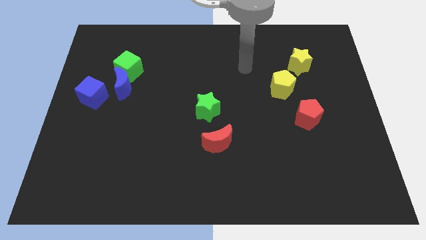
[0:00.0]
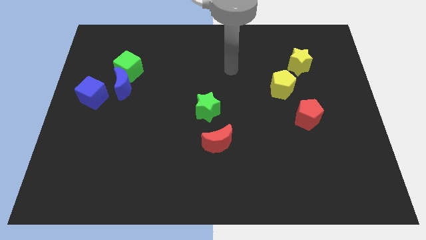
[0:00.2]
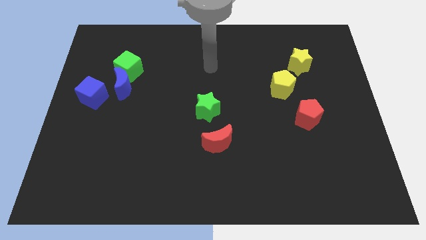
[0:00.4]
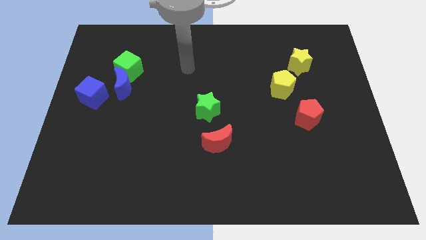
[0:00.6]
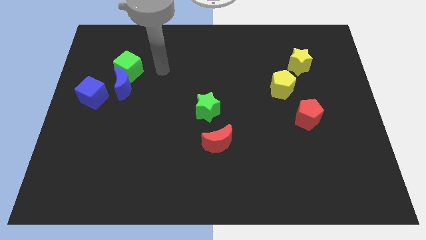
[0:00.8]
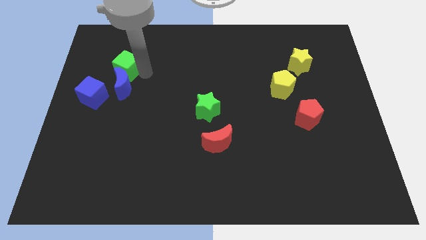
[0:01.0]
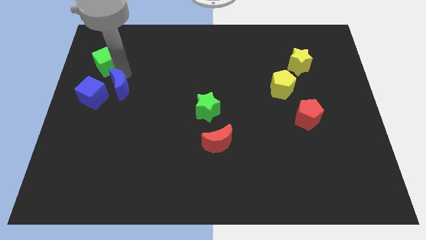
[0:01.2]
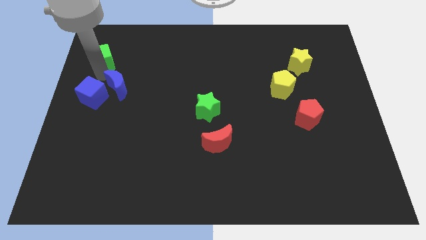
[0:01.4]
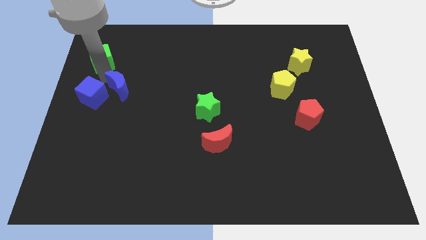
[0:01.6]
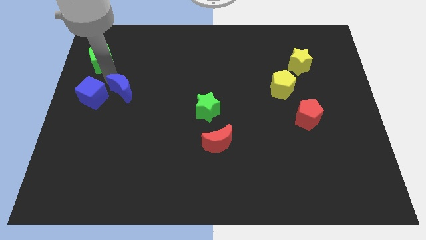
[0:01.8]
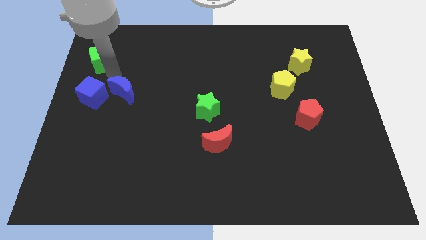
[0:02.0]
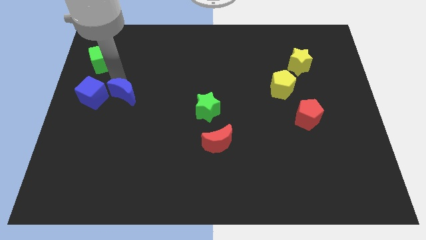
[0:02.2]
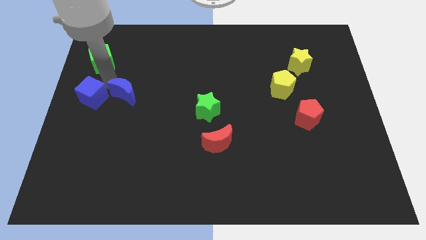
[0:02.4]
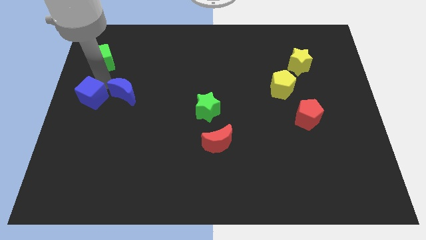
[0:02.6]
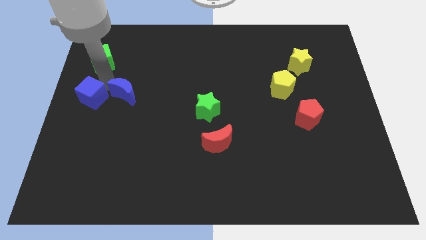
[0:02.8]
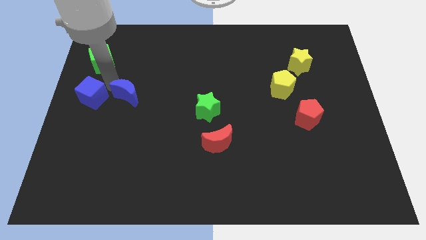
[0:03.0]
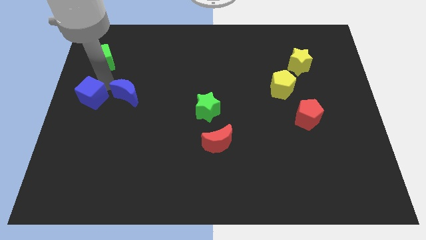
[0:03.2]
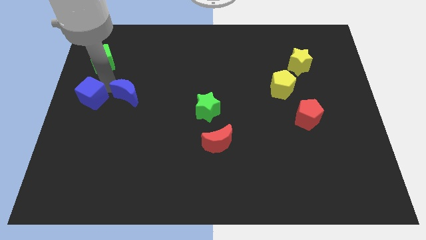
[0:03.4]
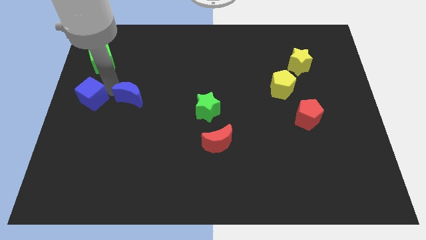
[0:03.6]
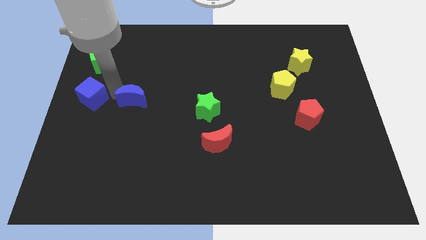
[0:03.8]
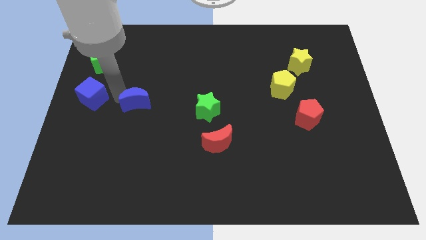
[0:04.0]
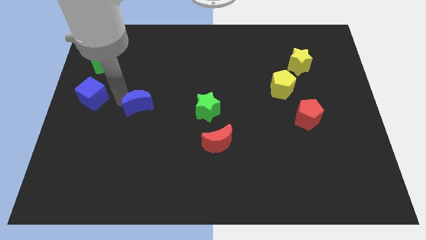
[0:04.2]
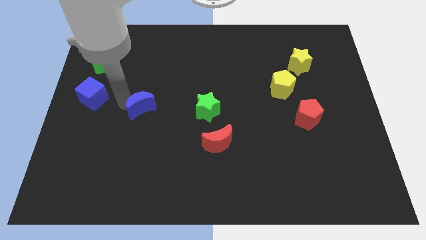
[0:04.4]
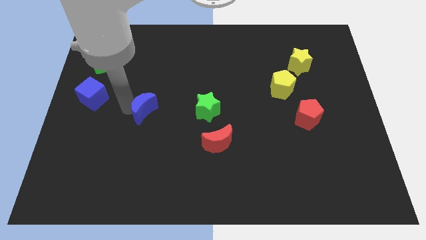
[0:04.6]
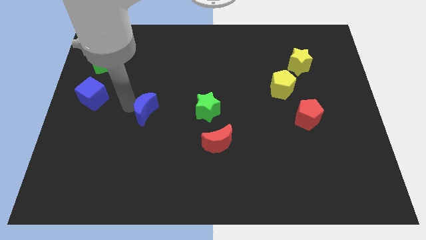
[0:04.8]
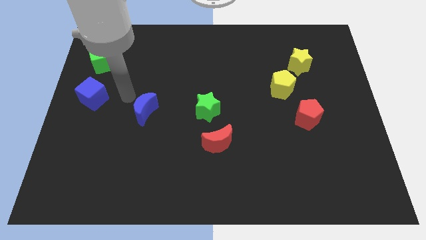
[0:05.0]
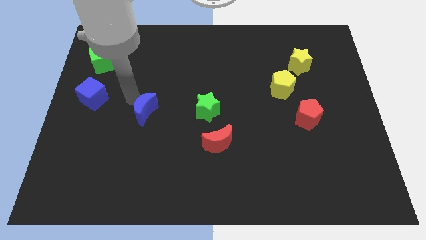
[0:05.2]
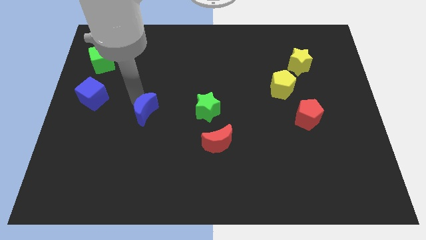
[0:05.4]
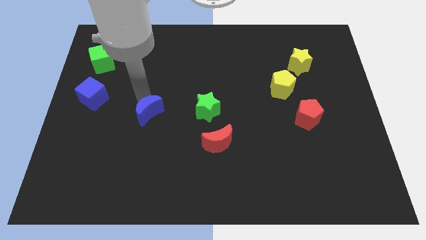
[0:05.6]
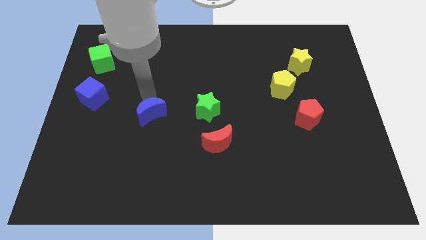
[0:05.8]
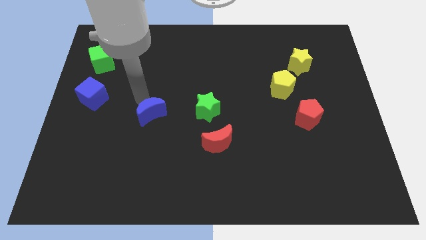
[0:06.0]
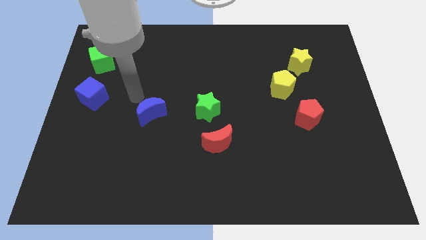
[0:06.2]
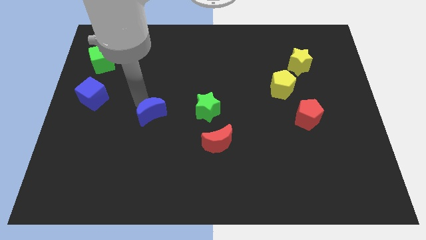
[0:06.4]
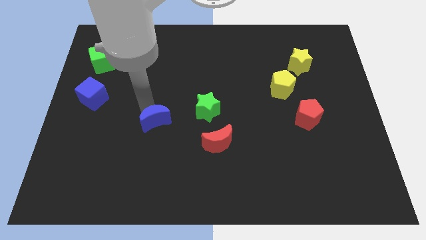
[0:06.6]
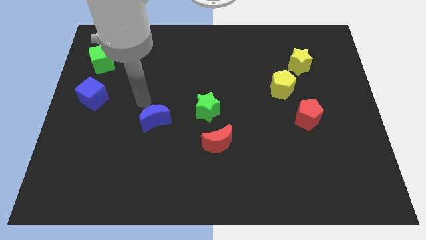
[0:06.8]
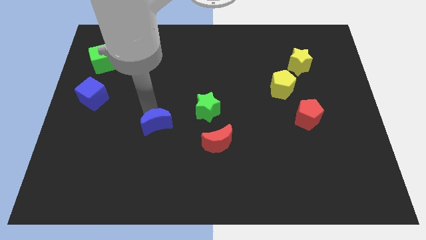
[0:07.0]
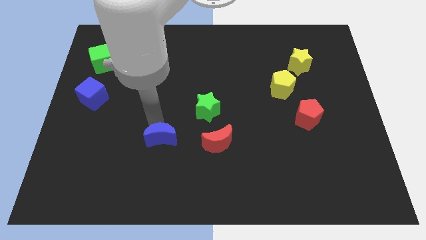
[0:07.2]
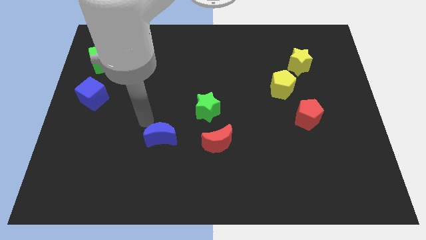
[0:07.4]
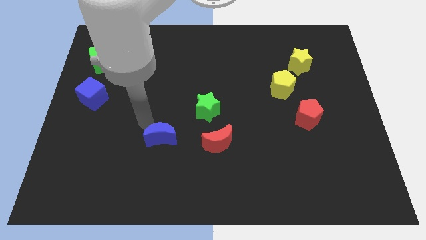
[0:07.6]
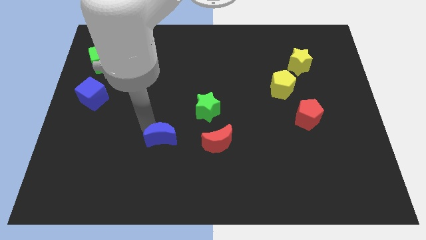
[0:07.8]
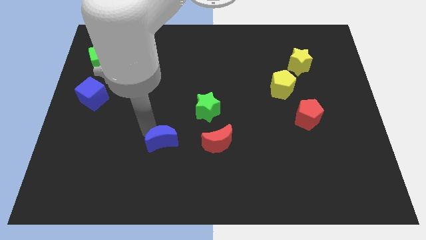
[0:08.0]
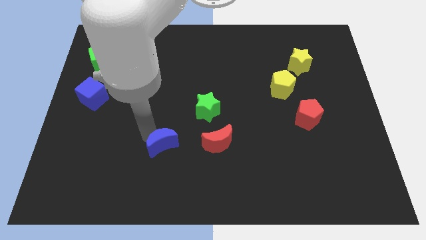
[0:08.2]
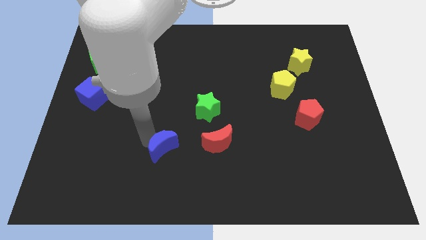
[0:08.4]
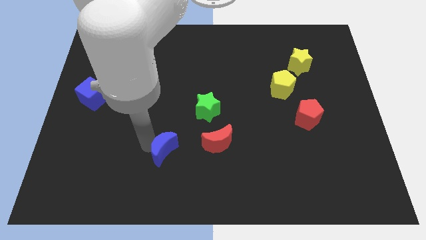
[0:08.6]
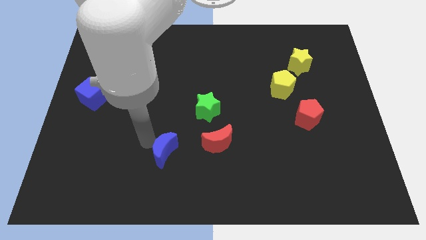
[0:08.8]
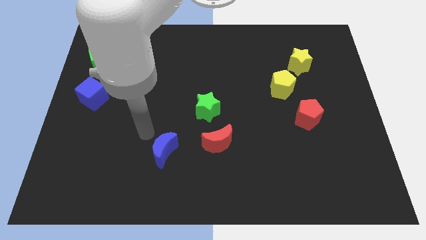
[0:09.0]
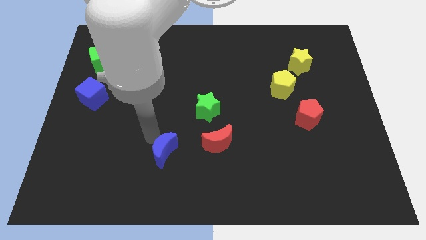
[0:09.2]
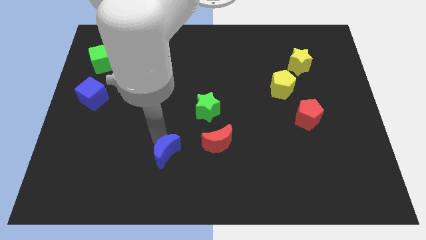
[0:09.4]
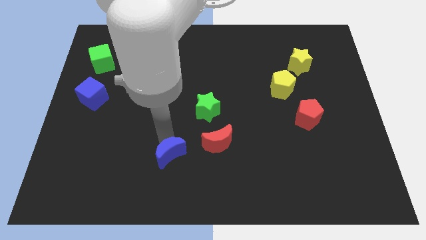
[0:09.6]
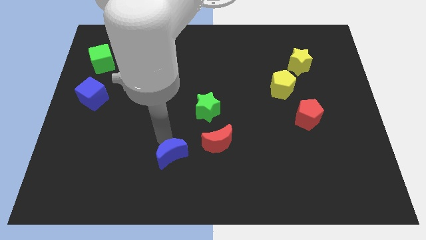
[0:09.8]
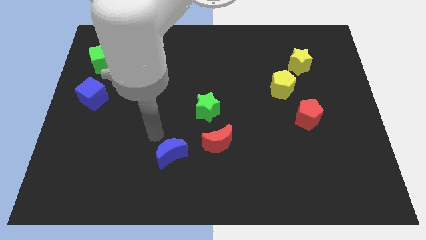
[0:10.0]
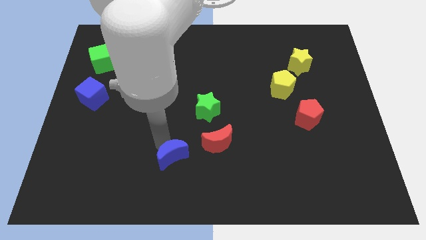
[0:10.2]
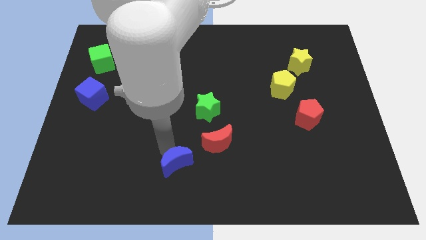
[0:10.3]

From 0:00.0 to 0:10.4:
slide the blue moon to the bottom side

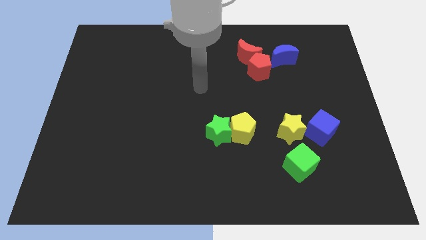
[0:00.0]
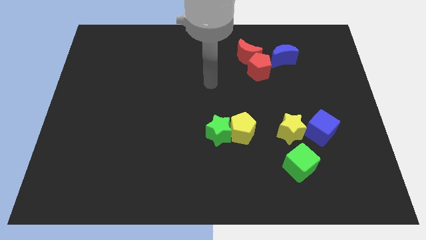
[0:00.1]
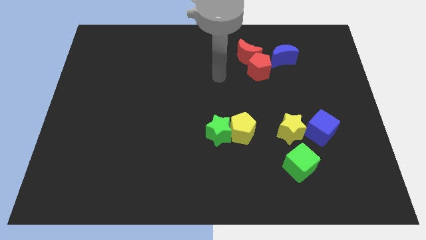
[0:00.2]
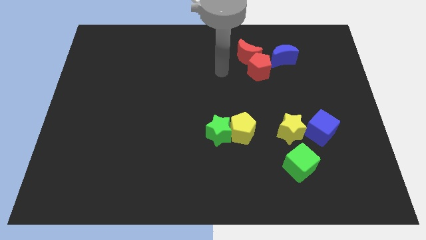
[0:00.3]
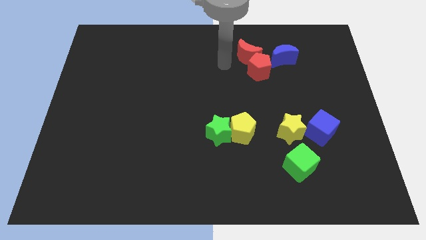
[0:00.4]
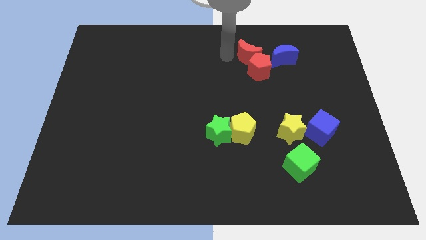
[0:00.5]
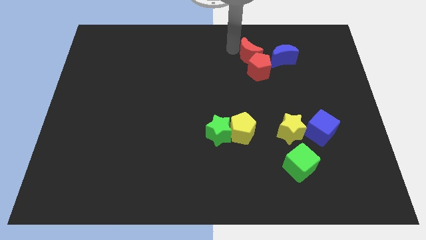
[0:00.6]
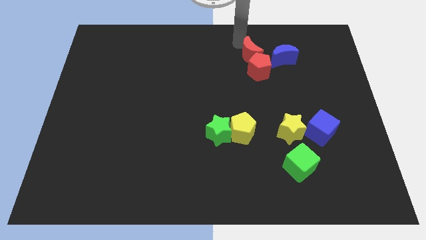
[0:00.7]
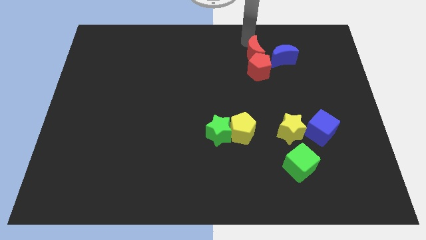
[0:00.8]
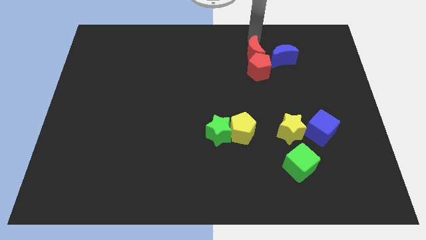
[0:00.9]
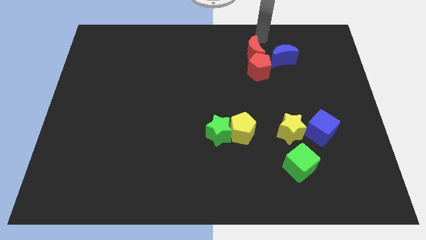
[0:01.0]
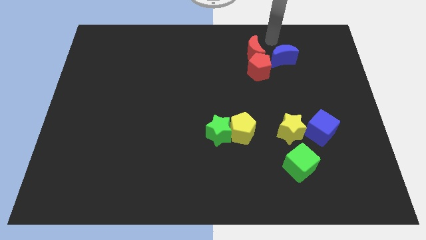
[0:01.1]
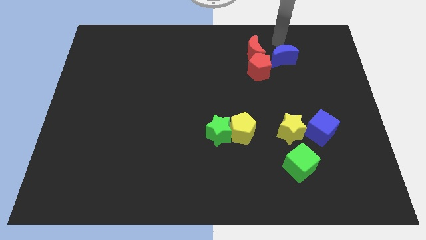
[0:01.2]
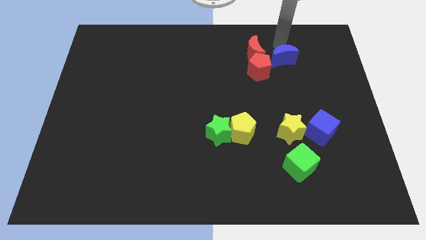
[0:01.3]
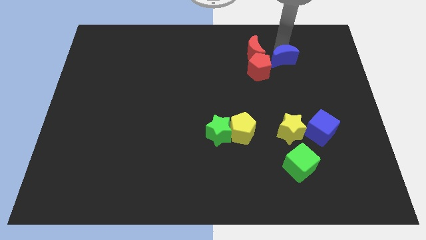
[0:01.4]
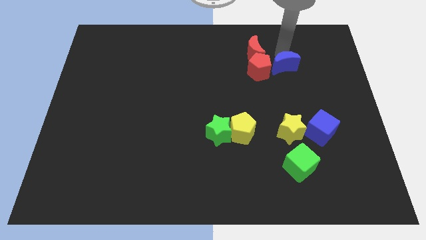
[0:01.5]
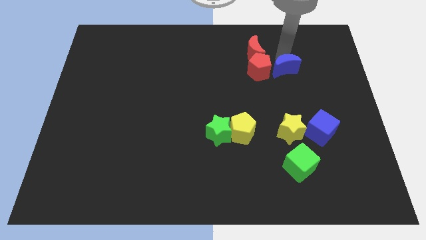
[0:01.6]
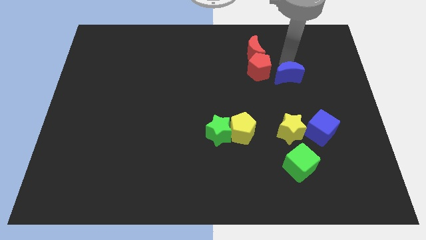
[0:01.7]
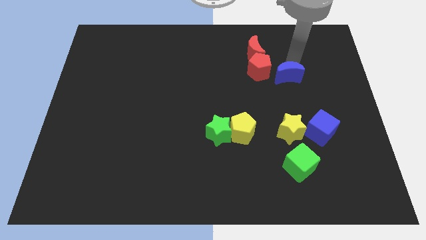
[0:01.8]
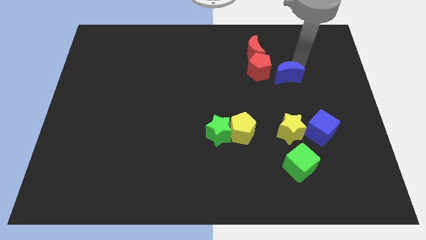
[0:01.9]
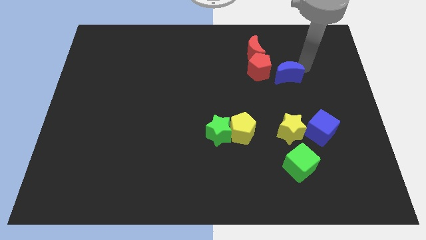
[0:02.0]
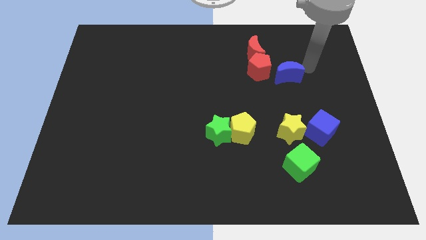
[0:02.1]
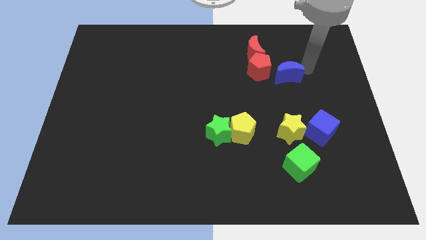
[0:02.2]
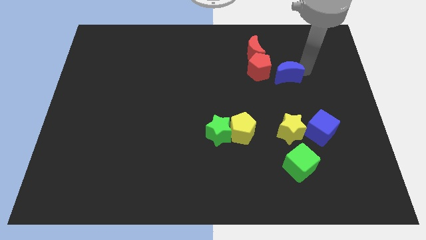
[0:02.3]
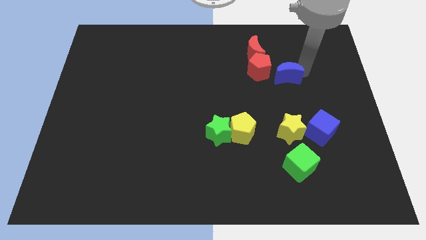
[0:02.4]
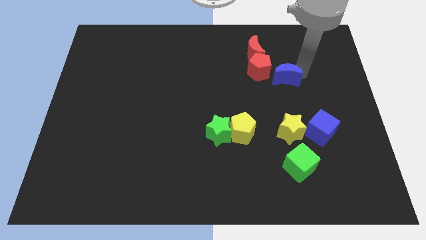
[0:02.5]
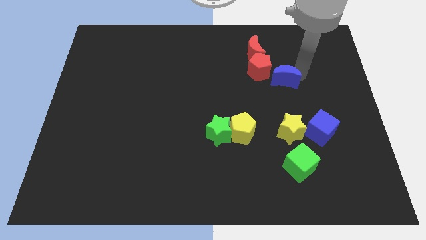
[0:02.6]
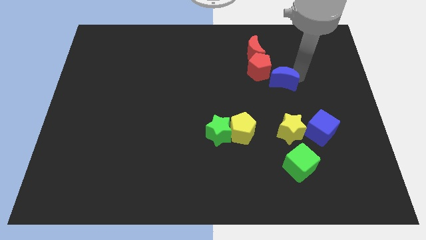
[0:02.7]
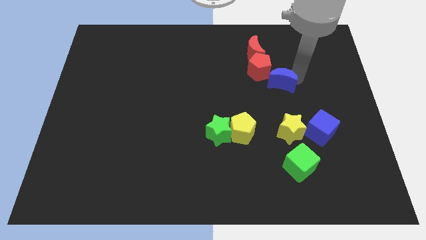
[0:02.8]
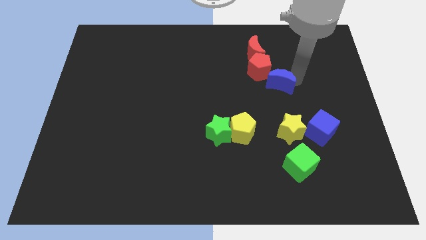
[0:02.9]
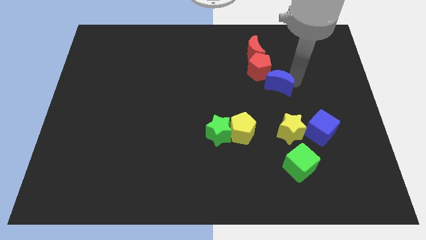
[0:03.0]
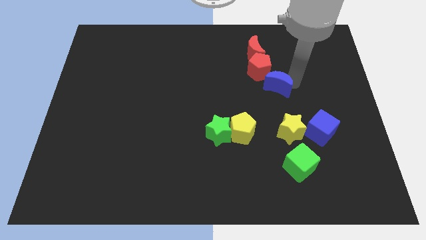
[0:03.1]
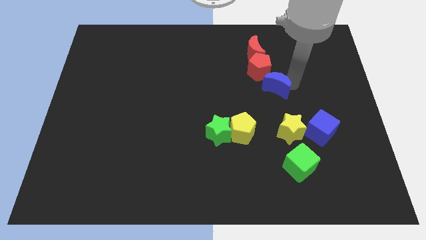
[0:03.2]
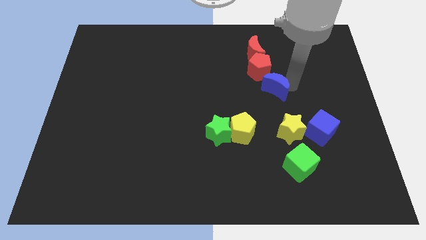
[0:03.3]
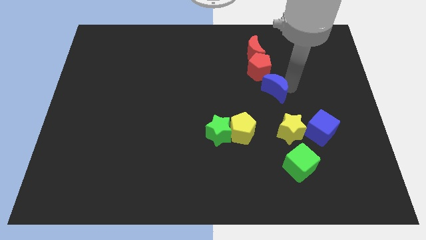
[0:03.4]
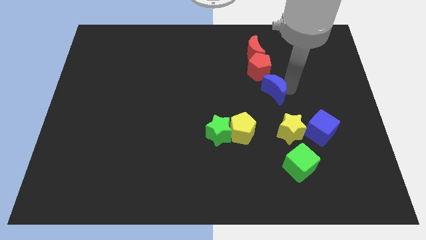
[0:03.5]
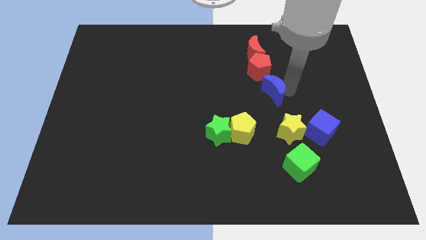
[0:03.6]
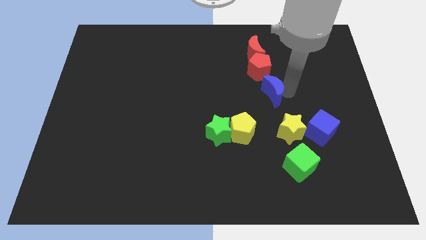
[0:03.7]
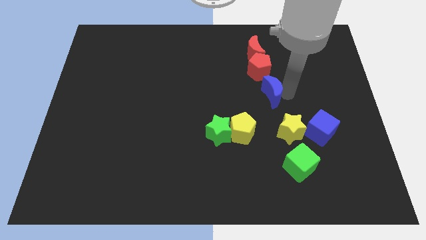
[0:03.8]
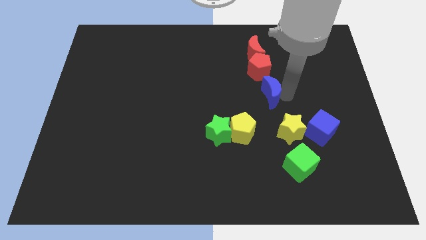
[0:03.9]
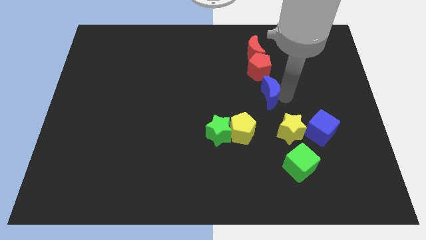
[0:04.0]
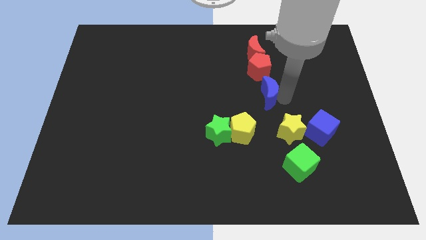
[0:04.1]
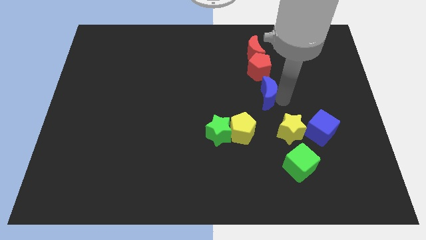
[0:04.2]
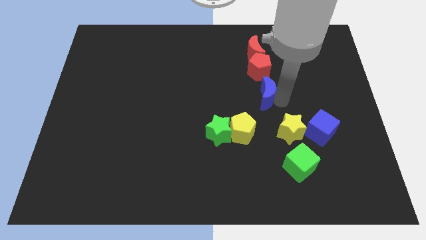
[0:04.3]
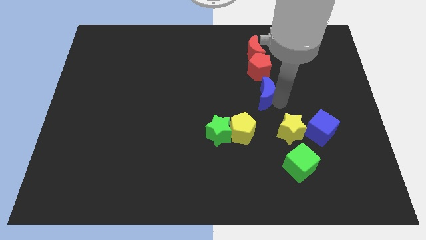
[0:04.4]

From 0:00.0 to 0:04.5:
slide the blue moon to the center
